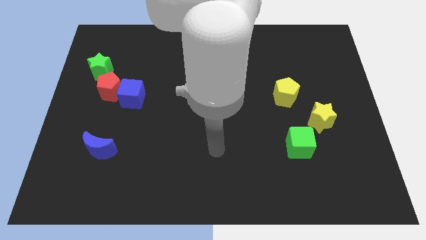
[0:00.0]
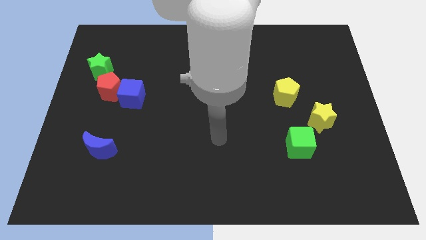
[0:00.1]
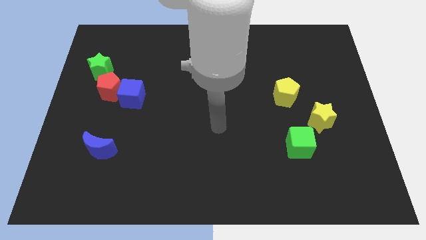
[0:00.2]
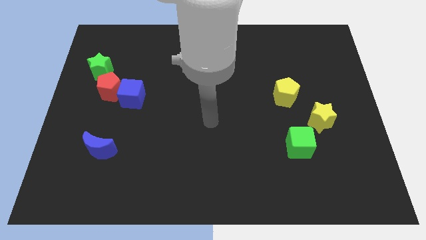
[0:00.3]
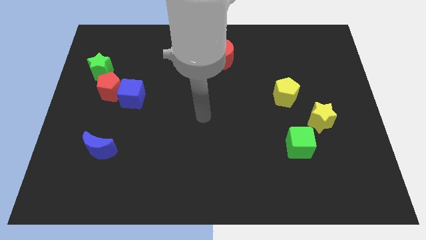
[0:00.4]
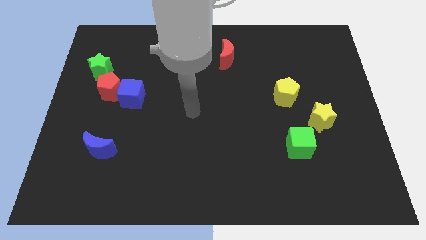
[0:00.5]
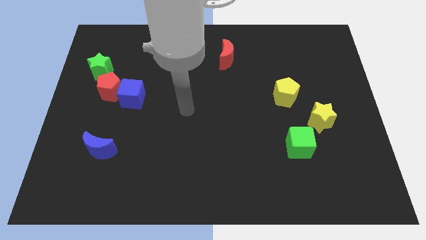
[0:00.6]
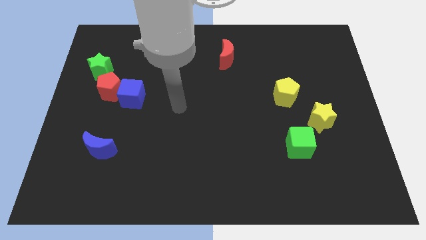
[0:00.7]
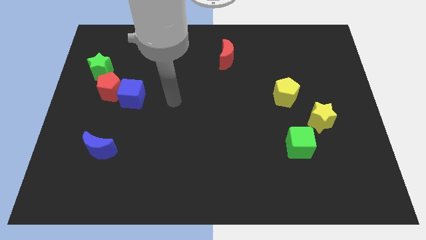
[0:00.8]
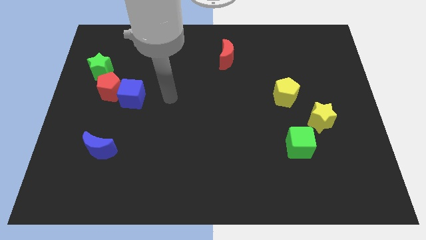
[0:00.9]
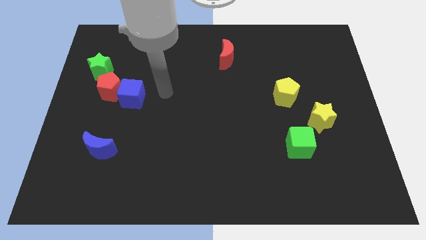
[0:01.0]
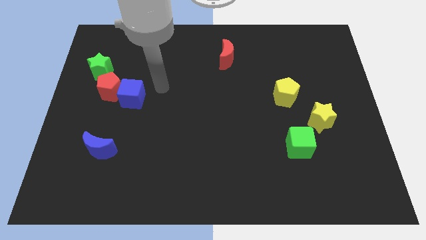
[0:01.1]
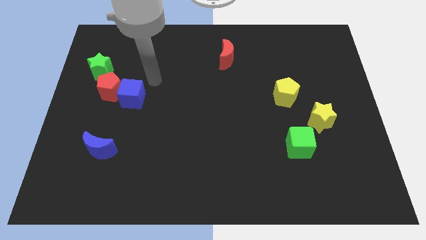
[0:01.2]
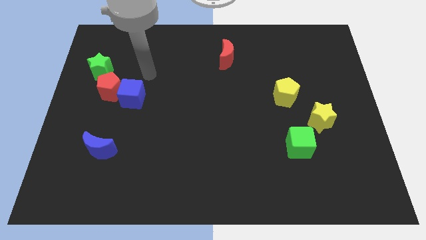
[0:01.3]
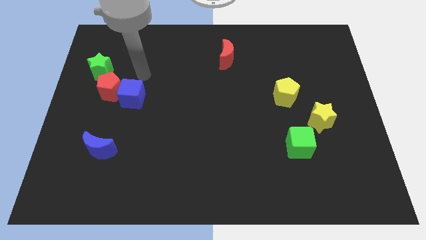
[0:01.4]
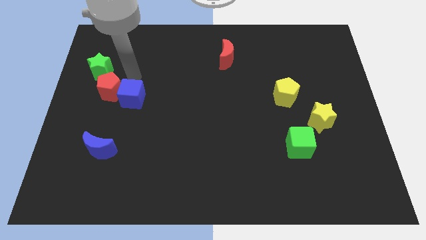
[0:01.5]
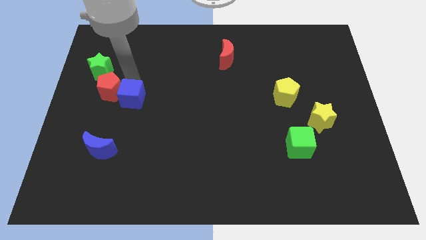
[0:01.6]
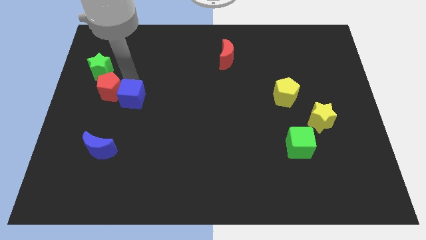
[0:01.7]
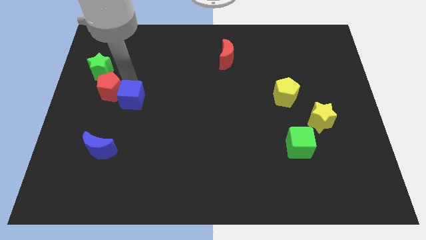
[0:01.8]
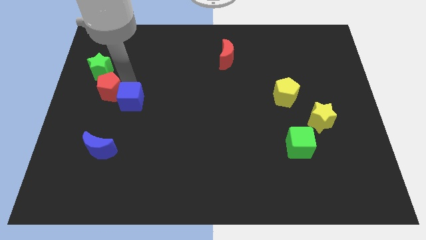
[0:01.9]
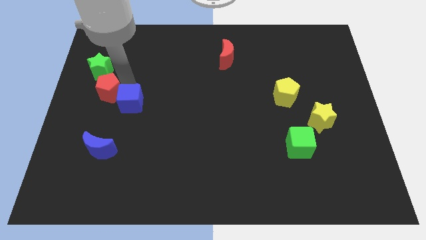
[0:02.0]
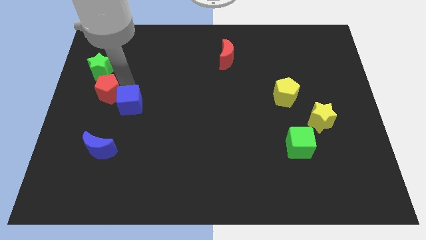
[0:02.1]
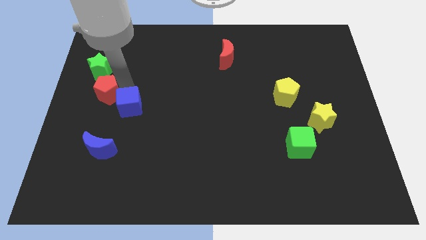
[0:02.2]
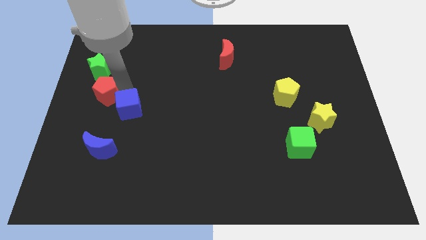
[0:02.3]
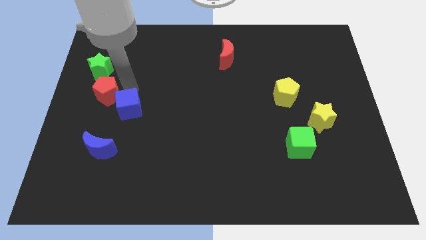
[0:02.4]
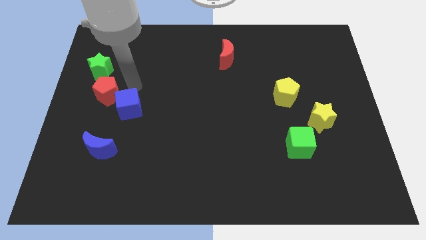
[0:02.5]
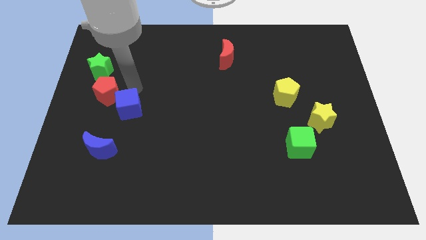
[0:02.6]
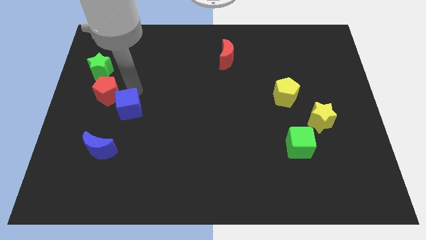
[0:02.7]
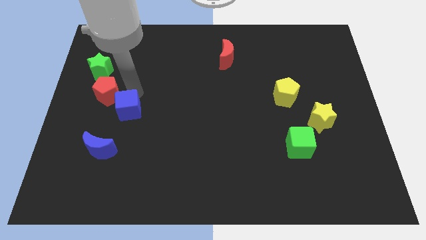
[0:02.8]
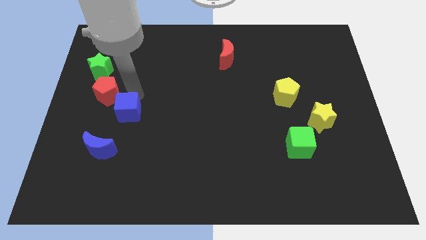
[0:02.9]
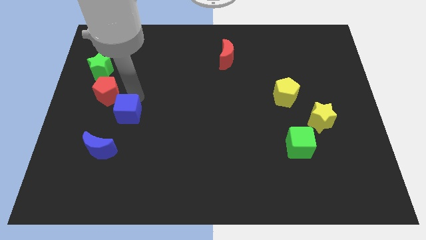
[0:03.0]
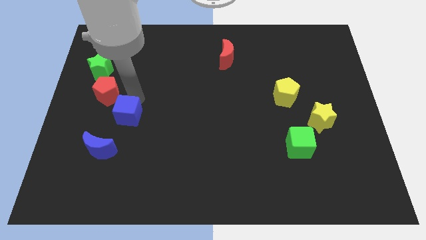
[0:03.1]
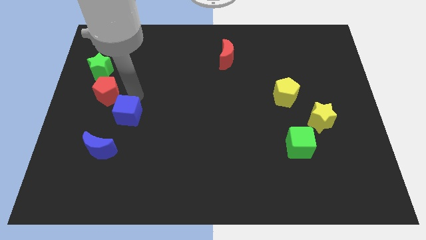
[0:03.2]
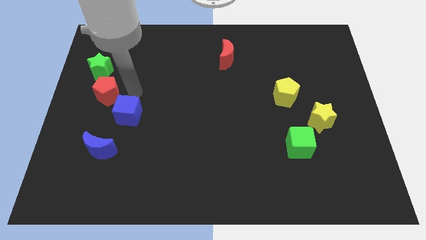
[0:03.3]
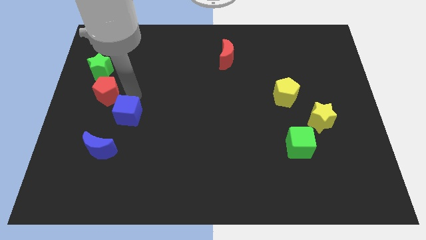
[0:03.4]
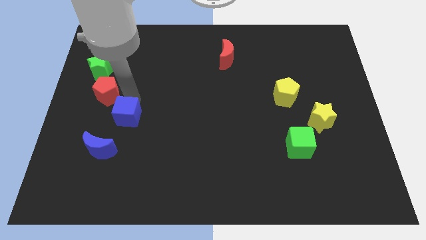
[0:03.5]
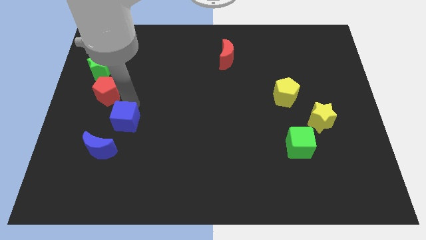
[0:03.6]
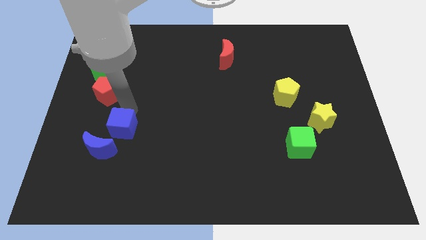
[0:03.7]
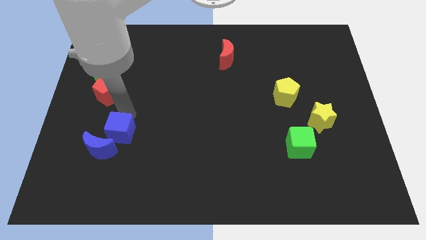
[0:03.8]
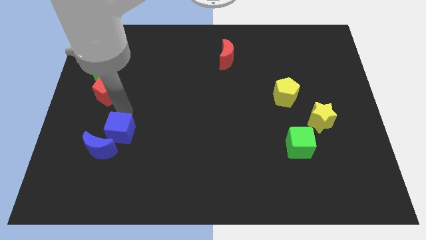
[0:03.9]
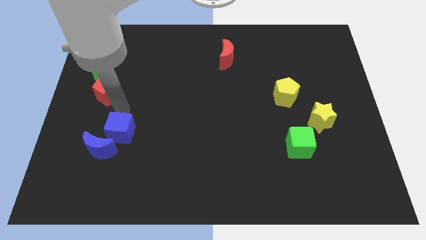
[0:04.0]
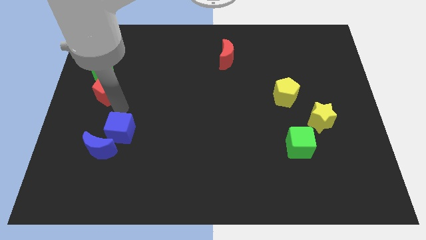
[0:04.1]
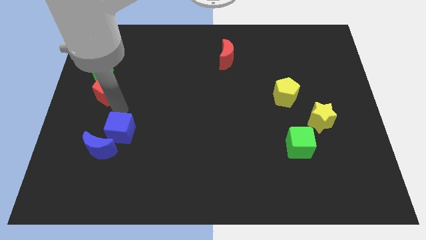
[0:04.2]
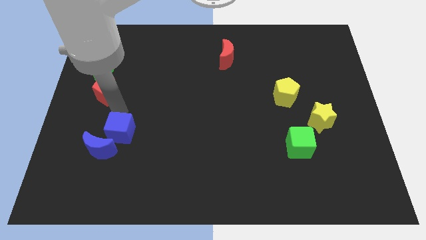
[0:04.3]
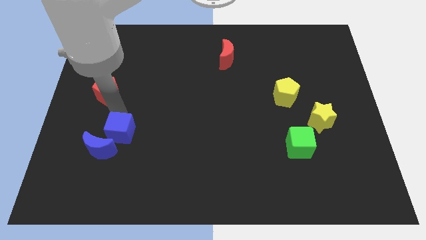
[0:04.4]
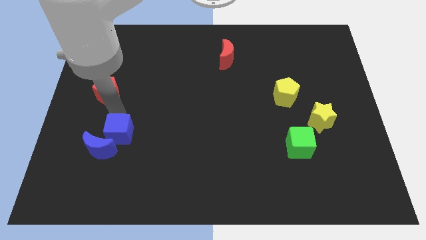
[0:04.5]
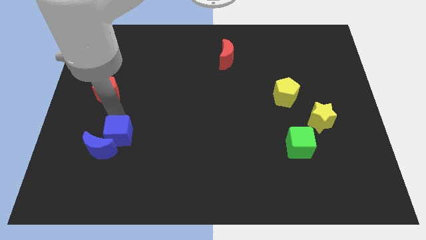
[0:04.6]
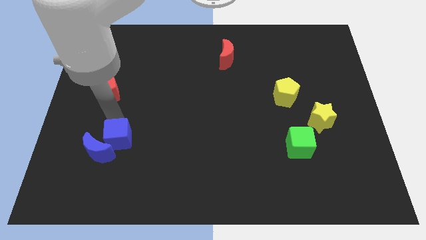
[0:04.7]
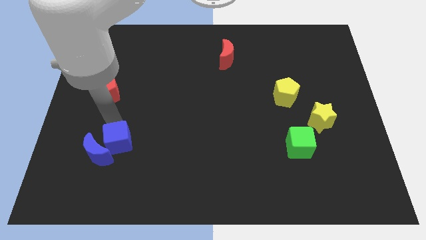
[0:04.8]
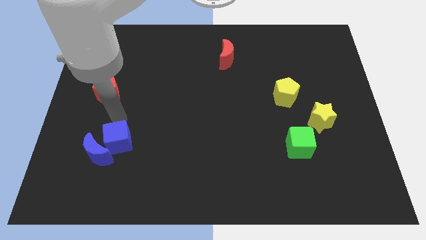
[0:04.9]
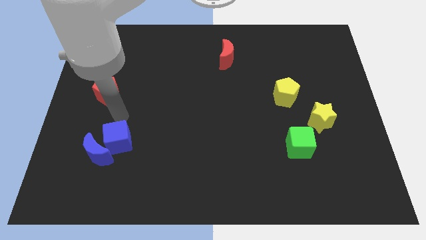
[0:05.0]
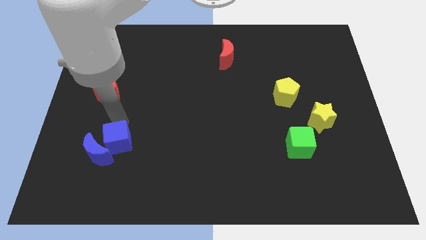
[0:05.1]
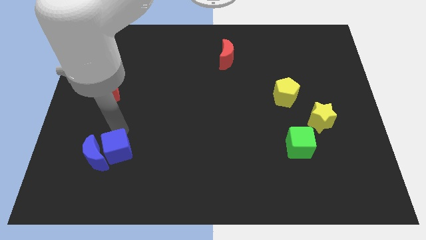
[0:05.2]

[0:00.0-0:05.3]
move the blue cube to the bottom right of the blue moon

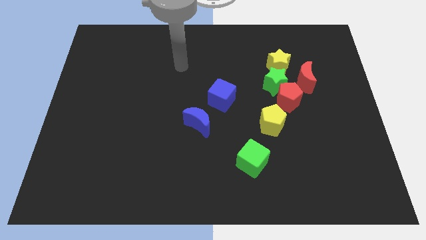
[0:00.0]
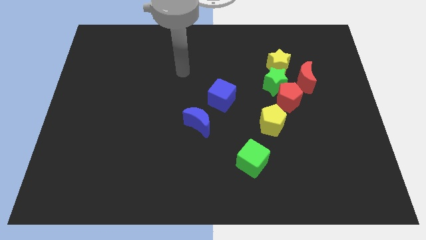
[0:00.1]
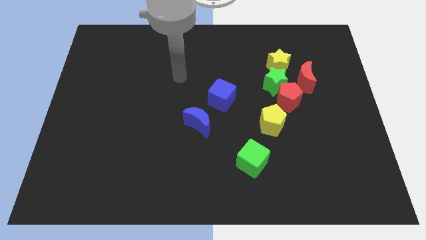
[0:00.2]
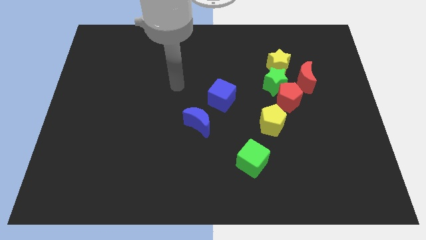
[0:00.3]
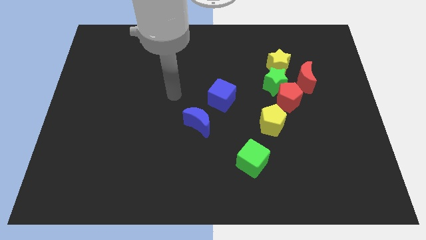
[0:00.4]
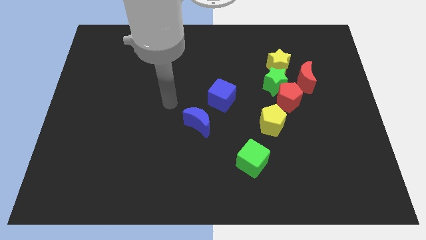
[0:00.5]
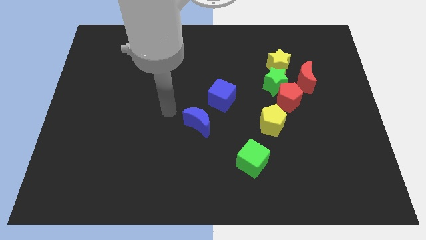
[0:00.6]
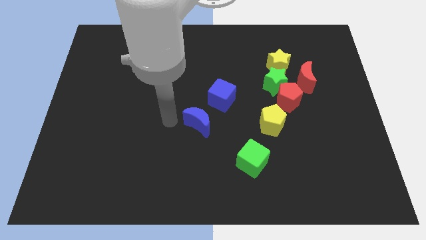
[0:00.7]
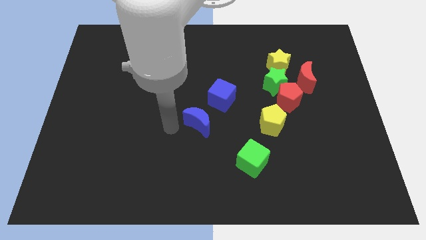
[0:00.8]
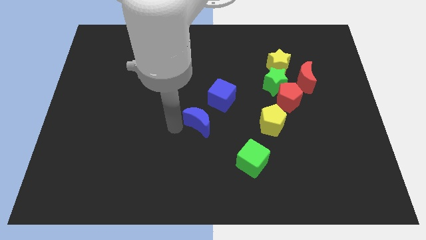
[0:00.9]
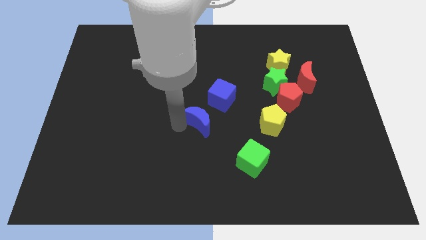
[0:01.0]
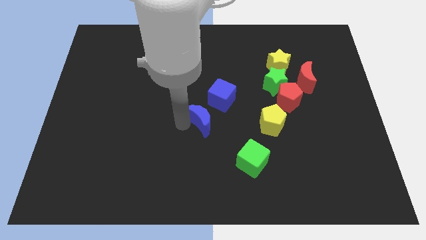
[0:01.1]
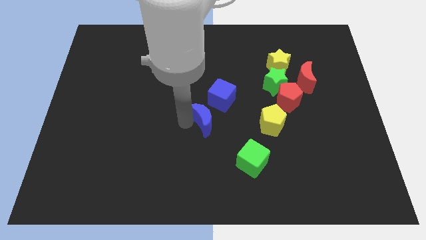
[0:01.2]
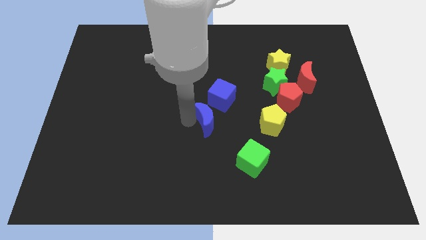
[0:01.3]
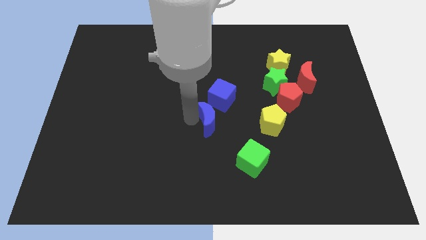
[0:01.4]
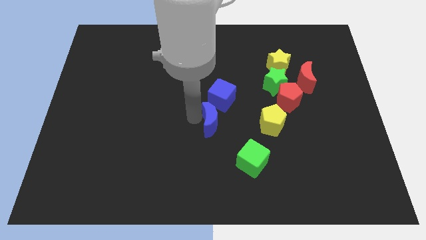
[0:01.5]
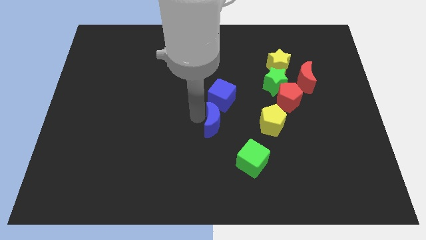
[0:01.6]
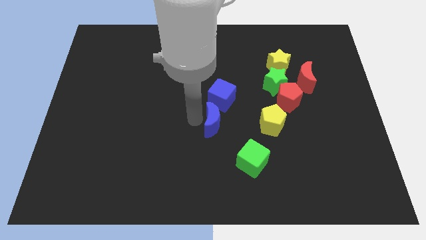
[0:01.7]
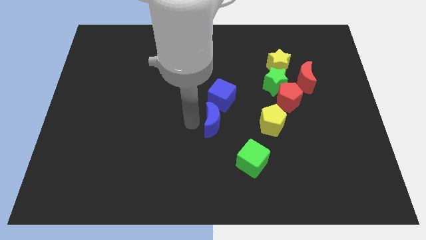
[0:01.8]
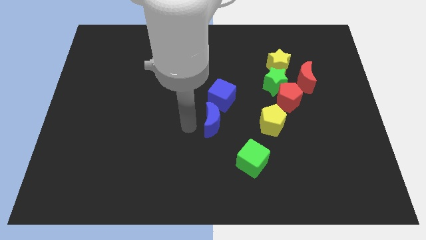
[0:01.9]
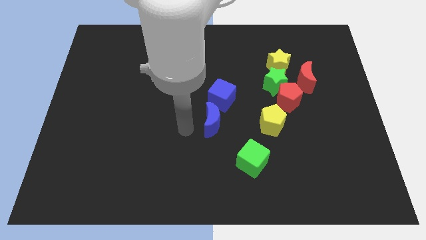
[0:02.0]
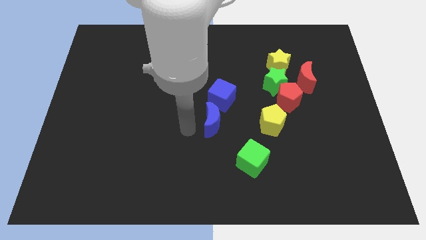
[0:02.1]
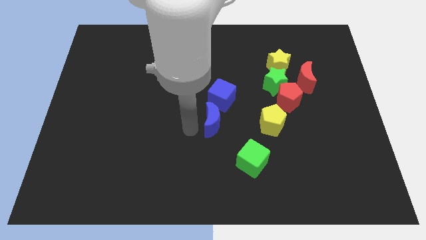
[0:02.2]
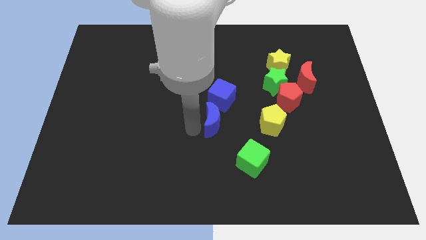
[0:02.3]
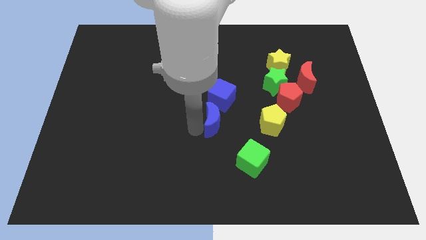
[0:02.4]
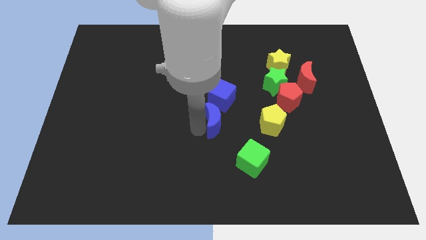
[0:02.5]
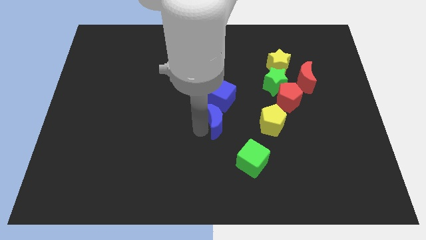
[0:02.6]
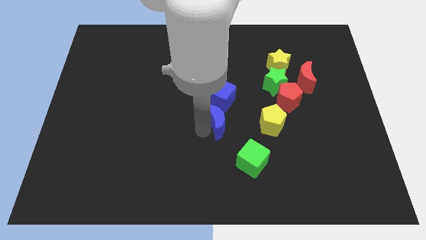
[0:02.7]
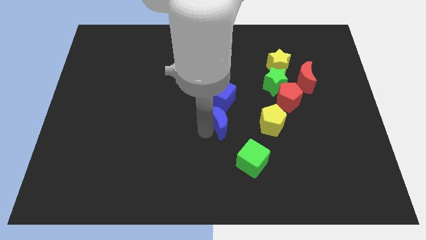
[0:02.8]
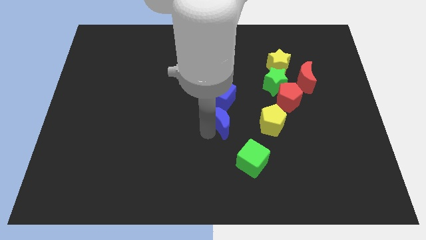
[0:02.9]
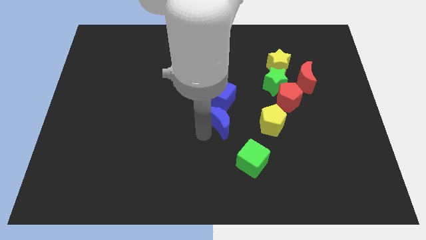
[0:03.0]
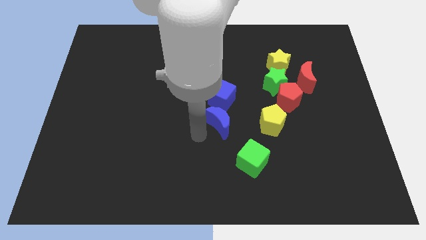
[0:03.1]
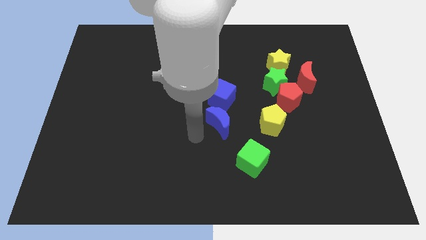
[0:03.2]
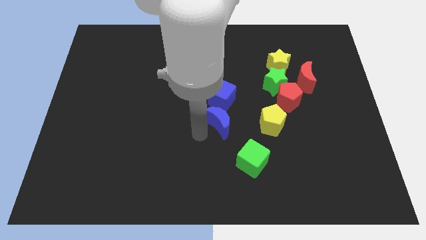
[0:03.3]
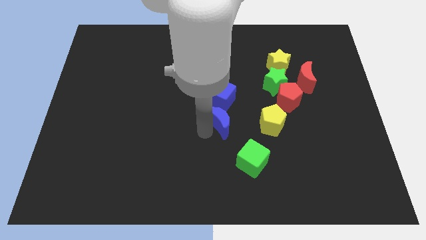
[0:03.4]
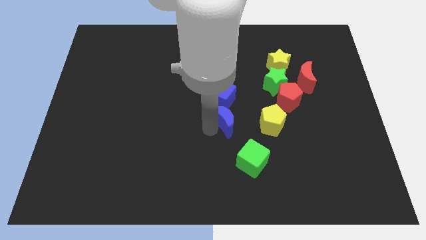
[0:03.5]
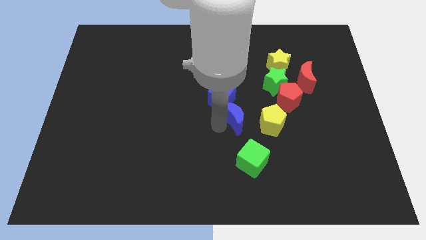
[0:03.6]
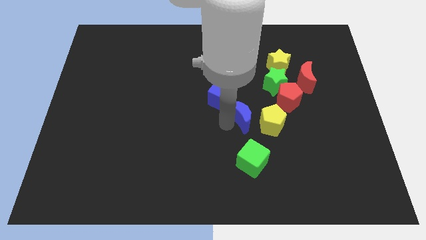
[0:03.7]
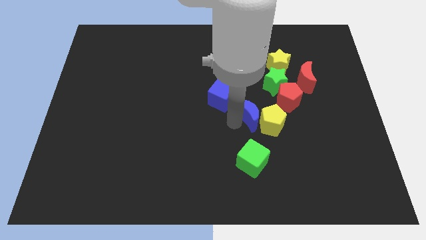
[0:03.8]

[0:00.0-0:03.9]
push the blue moon to the bottom left of the green star
